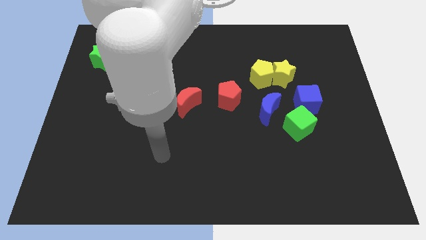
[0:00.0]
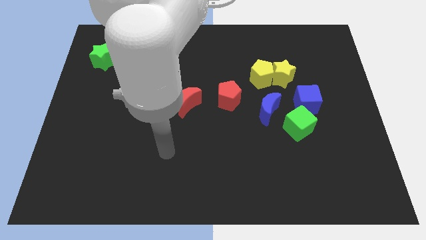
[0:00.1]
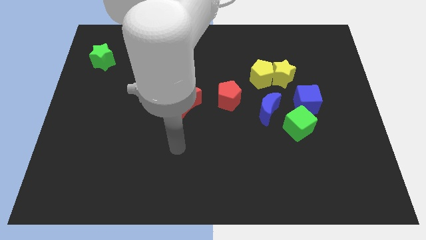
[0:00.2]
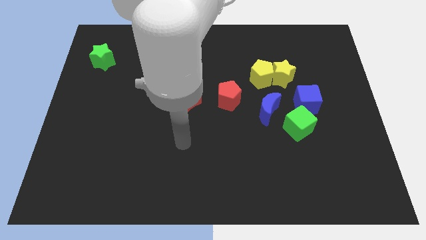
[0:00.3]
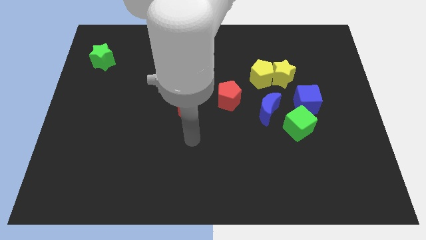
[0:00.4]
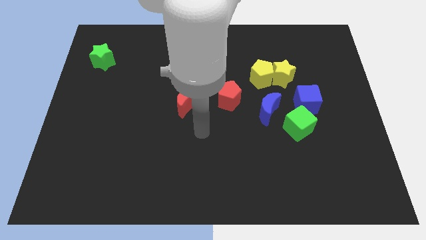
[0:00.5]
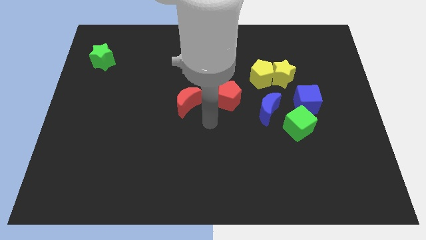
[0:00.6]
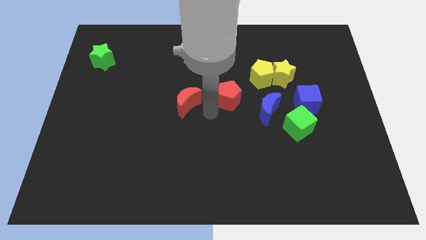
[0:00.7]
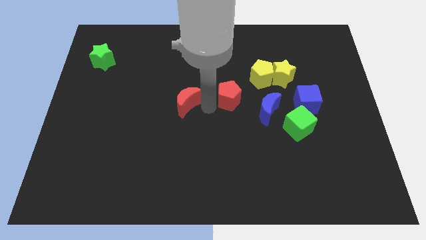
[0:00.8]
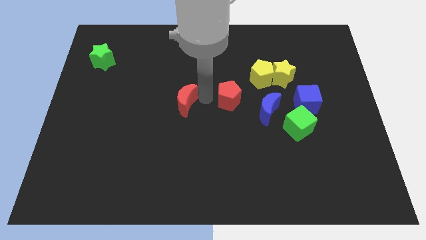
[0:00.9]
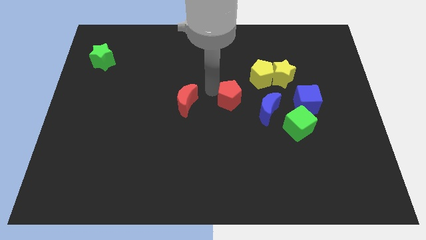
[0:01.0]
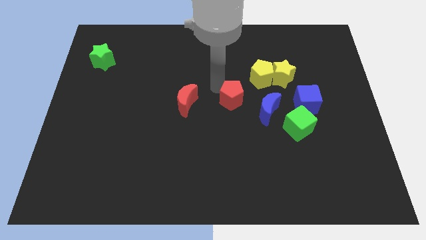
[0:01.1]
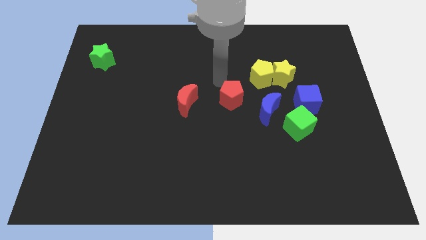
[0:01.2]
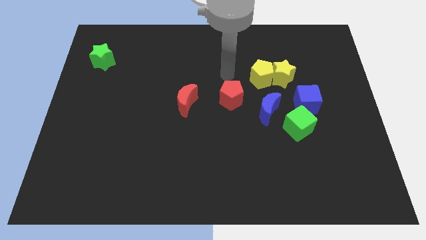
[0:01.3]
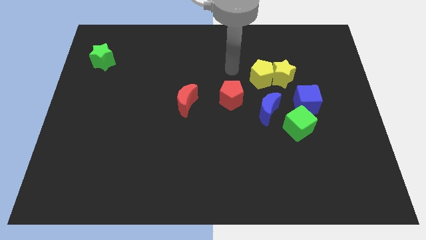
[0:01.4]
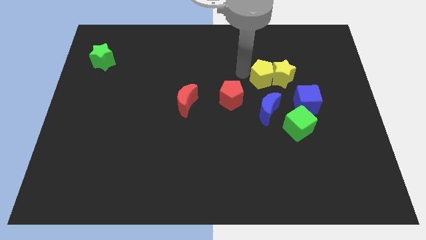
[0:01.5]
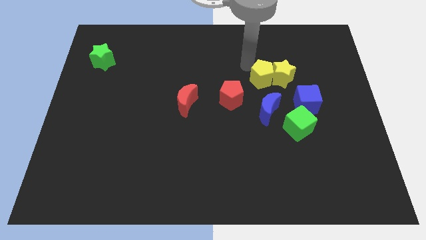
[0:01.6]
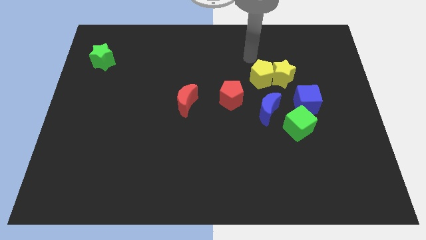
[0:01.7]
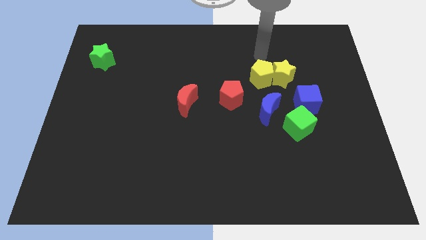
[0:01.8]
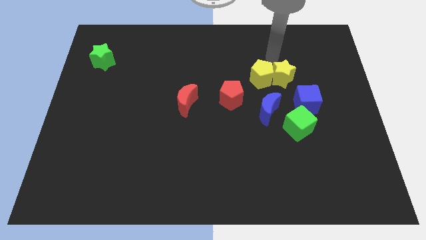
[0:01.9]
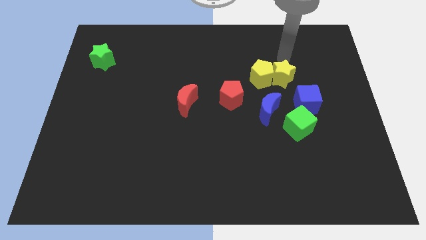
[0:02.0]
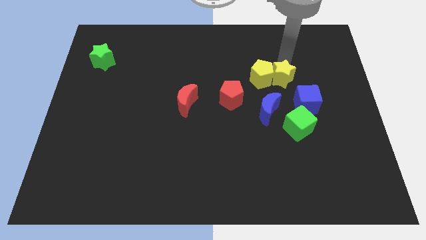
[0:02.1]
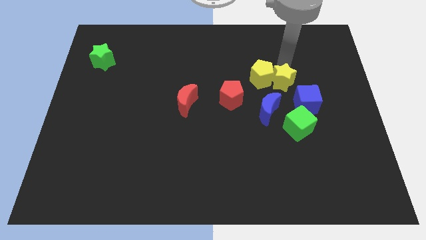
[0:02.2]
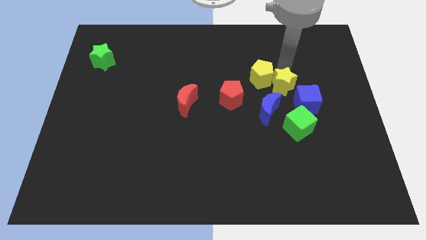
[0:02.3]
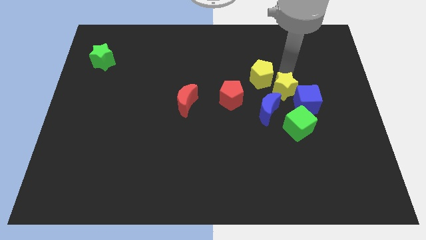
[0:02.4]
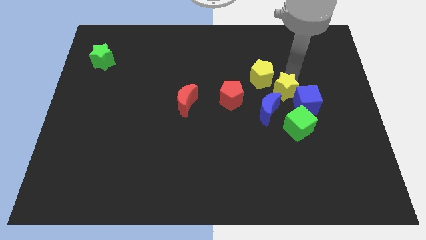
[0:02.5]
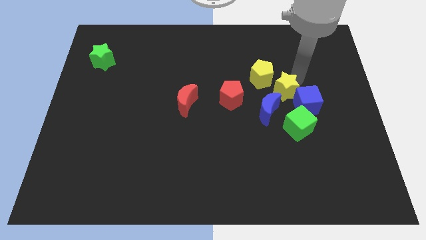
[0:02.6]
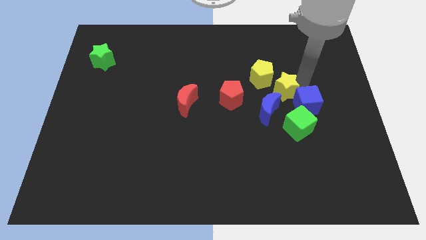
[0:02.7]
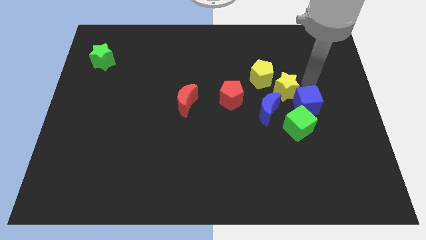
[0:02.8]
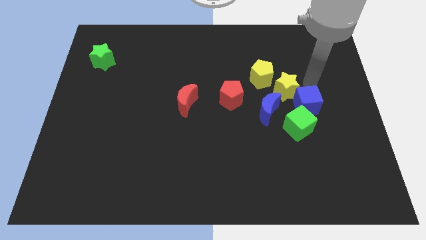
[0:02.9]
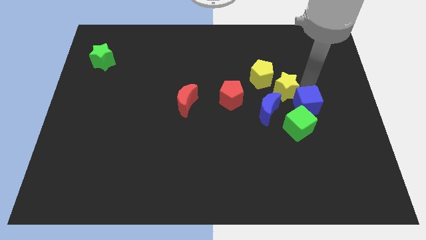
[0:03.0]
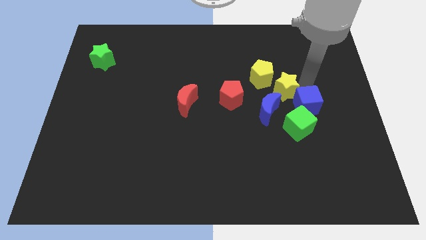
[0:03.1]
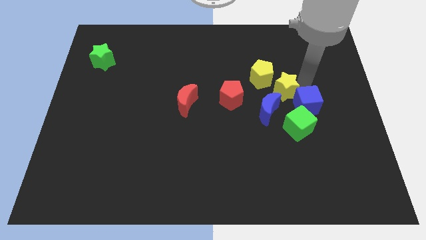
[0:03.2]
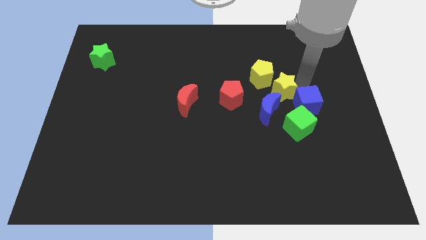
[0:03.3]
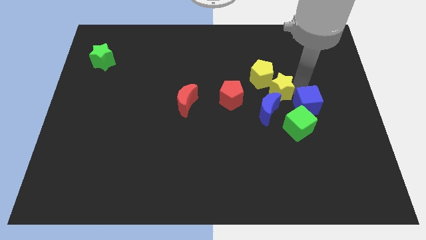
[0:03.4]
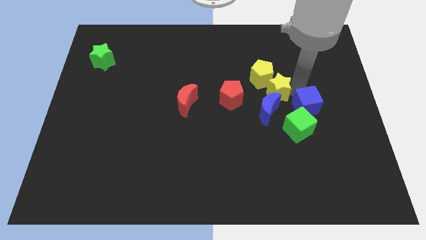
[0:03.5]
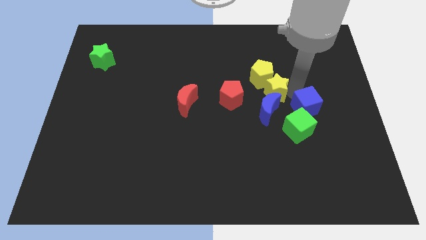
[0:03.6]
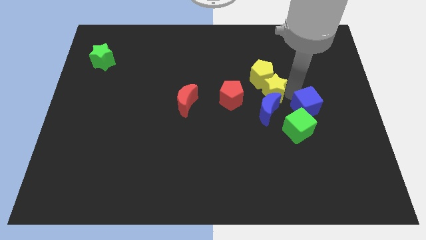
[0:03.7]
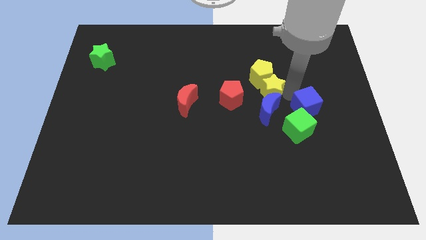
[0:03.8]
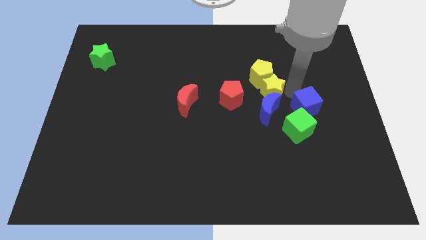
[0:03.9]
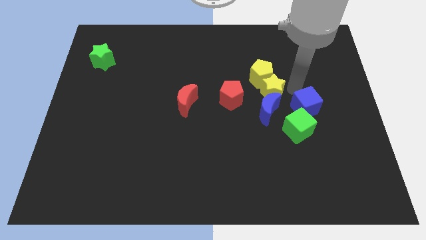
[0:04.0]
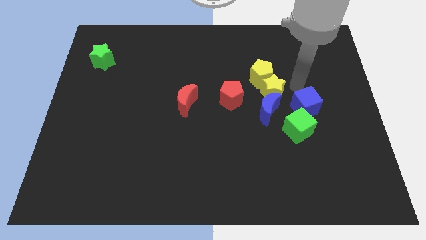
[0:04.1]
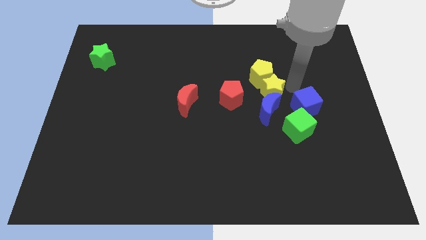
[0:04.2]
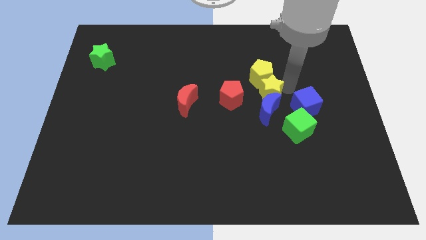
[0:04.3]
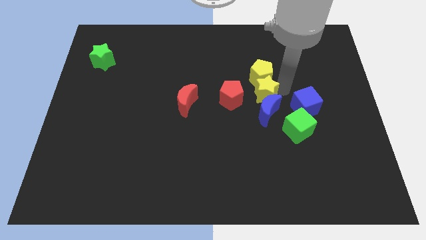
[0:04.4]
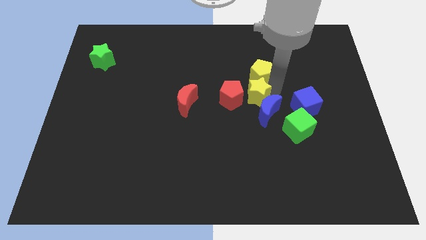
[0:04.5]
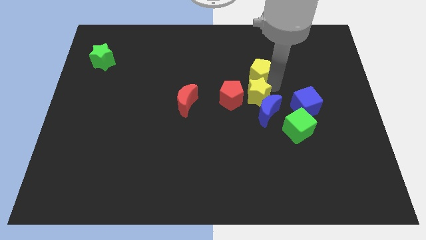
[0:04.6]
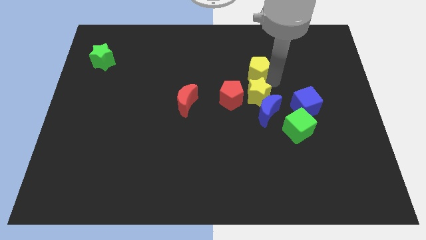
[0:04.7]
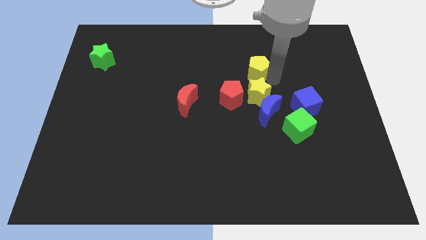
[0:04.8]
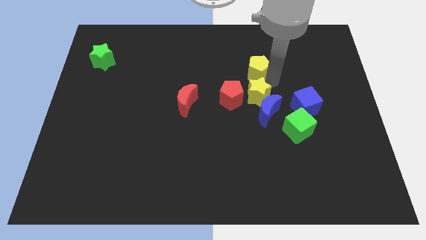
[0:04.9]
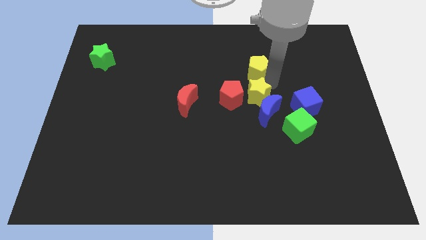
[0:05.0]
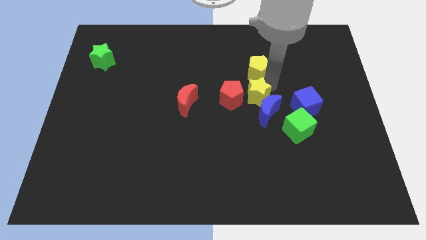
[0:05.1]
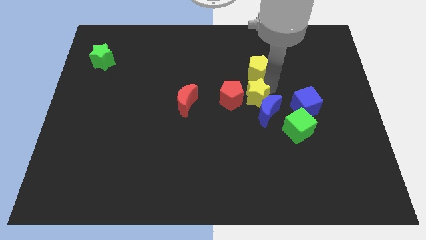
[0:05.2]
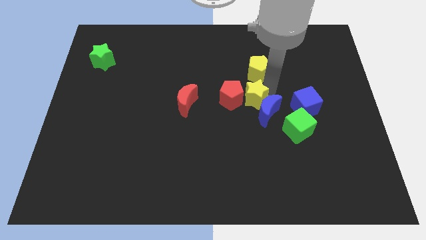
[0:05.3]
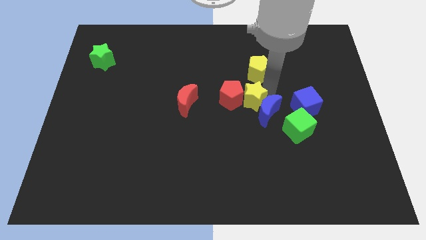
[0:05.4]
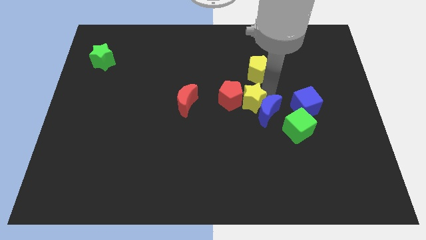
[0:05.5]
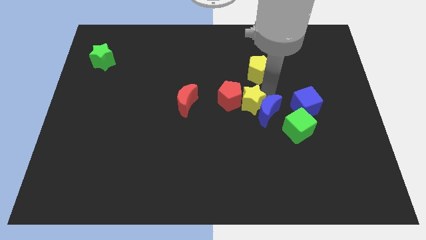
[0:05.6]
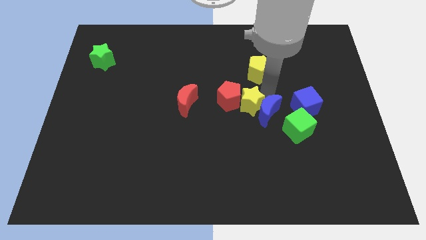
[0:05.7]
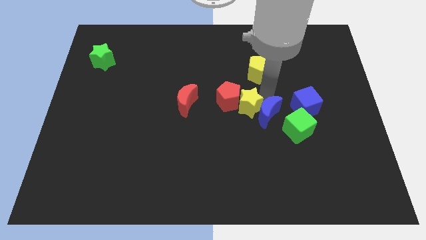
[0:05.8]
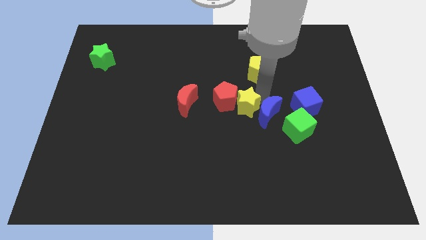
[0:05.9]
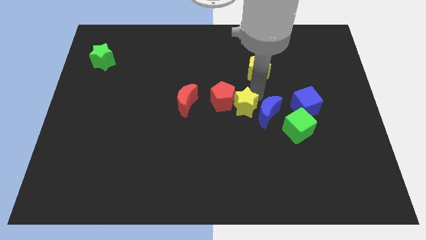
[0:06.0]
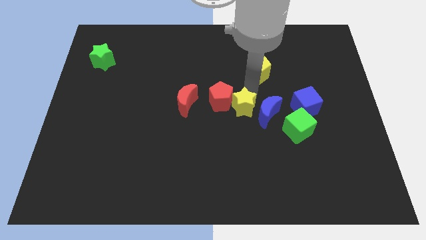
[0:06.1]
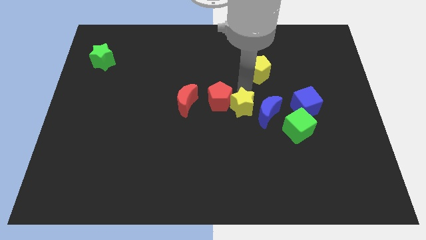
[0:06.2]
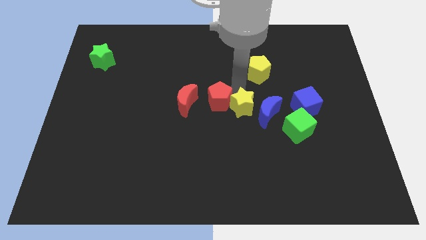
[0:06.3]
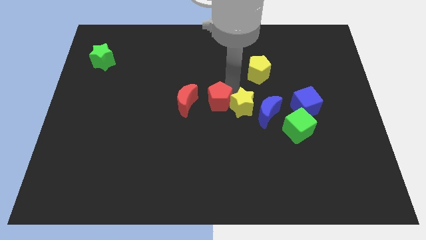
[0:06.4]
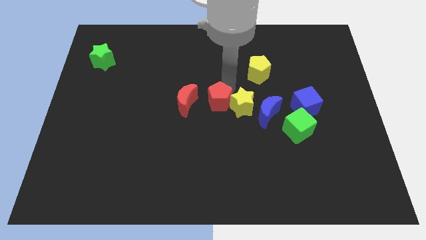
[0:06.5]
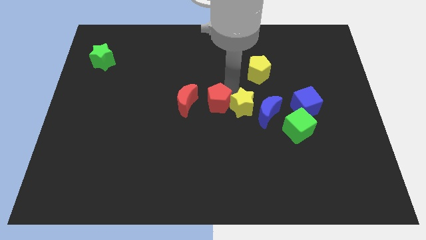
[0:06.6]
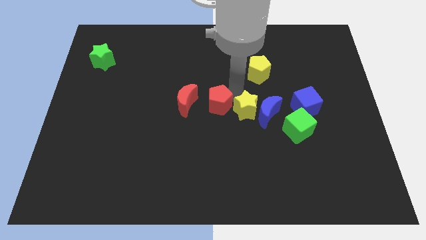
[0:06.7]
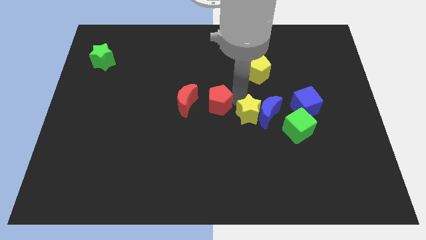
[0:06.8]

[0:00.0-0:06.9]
push the yellow star a little bit downwards

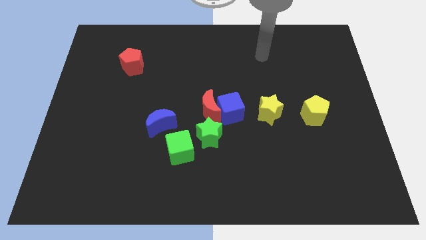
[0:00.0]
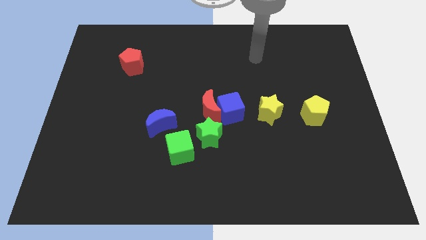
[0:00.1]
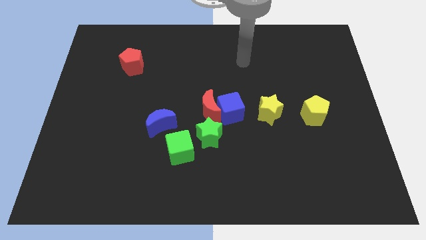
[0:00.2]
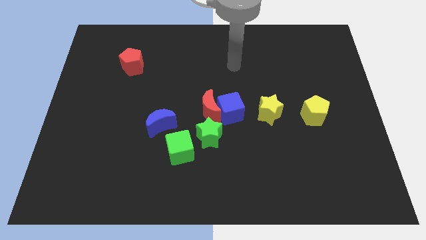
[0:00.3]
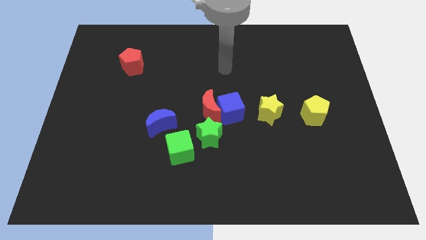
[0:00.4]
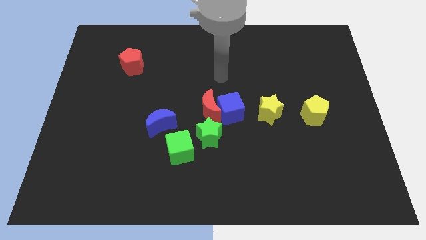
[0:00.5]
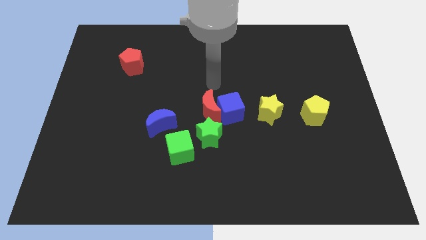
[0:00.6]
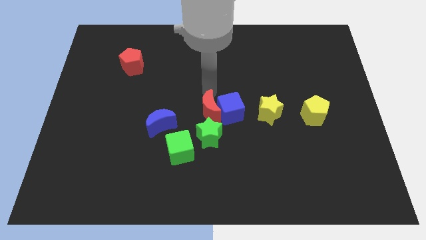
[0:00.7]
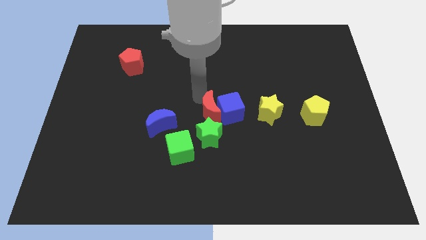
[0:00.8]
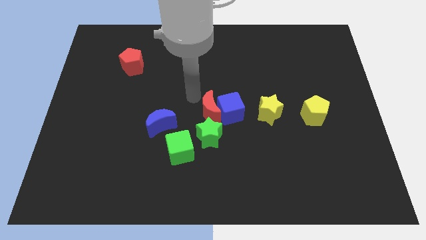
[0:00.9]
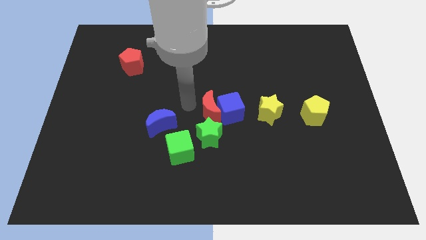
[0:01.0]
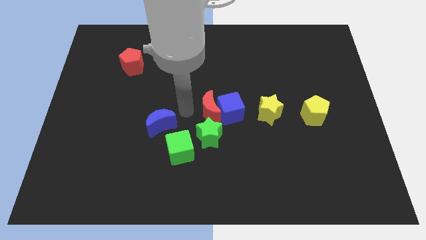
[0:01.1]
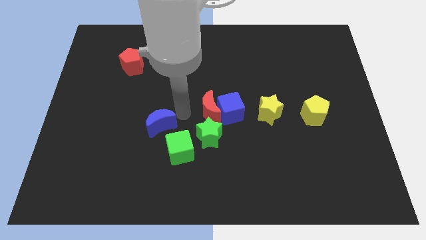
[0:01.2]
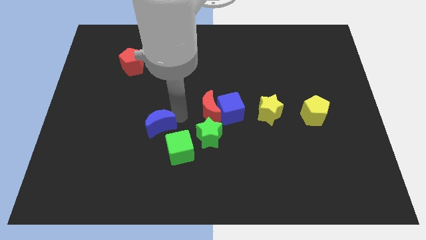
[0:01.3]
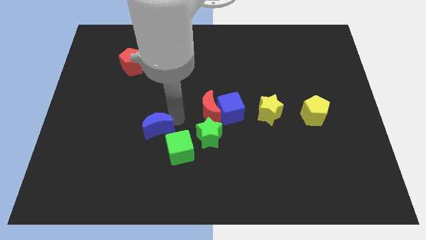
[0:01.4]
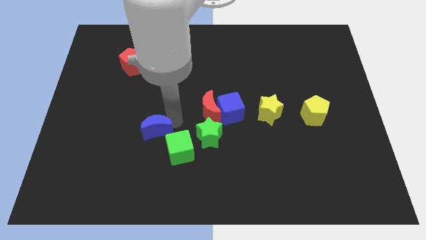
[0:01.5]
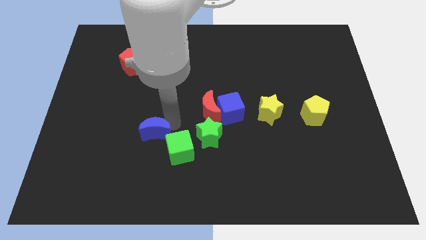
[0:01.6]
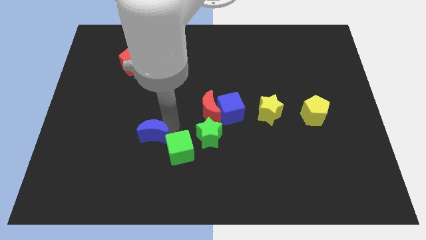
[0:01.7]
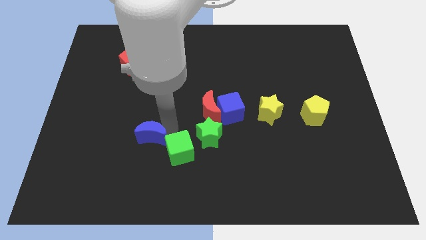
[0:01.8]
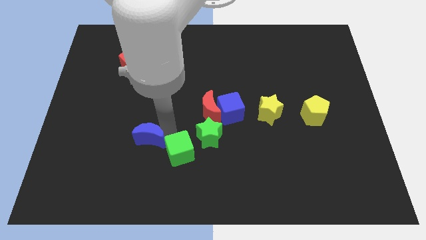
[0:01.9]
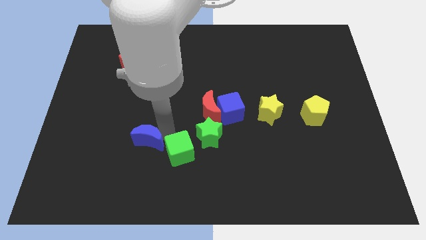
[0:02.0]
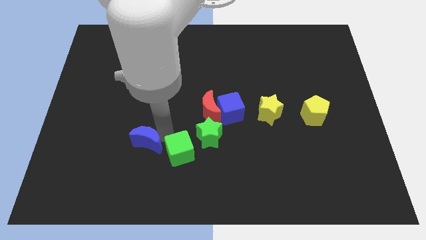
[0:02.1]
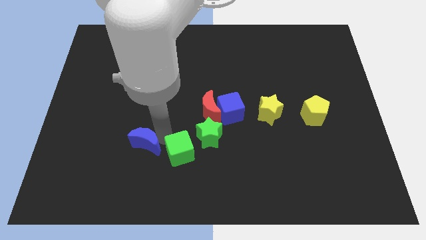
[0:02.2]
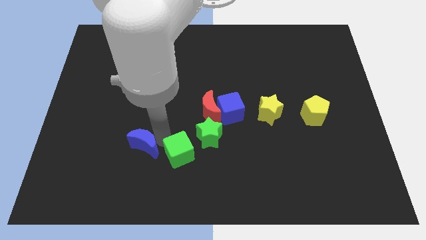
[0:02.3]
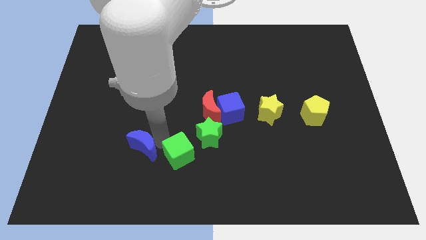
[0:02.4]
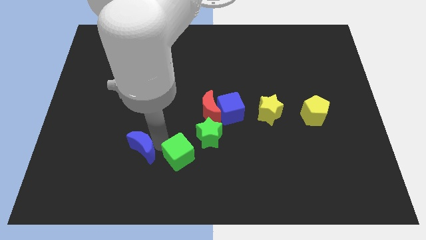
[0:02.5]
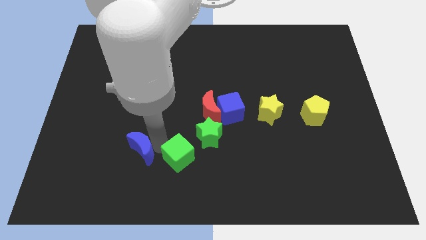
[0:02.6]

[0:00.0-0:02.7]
move the blue moon downwards and left diagonally a little
